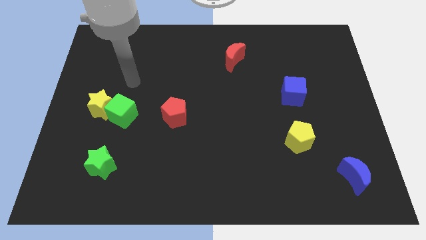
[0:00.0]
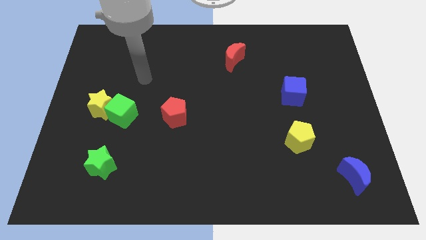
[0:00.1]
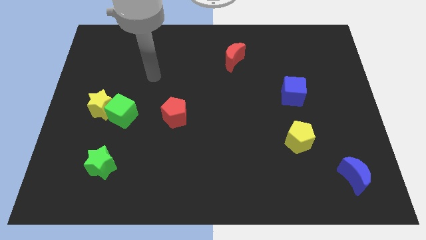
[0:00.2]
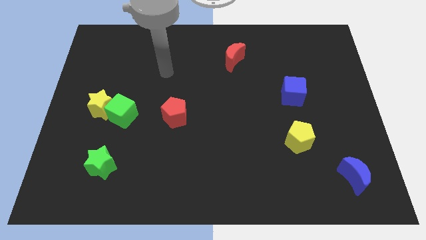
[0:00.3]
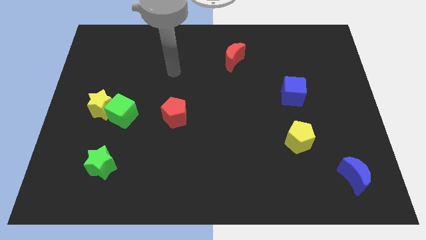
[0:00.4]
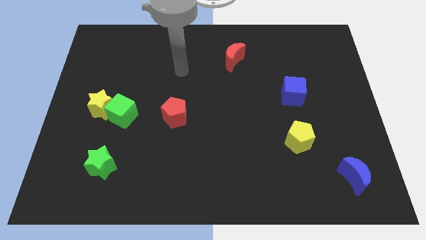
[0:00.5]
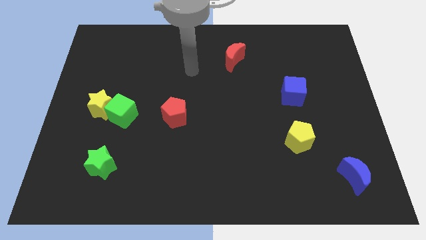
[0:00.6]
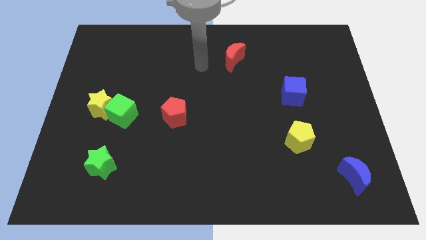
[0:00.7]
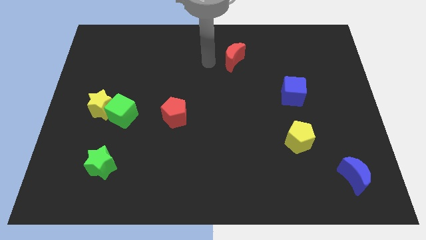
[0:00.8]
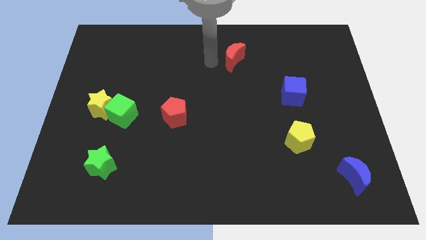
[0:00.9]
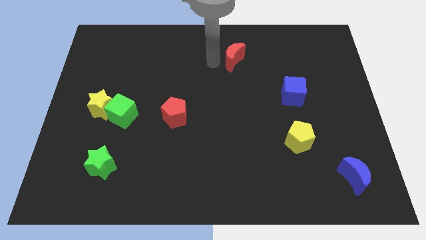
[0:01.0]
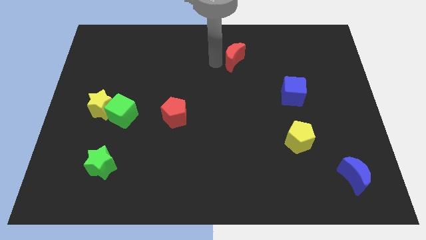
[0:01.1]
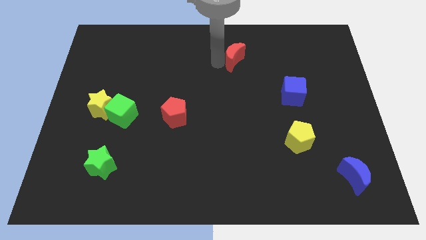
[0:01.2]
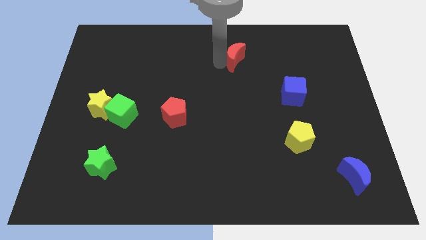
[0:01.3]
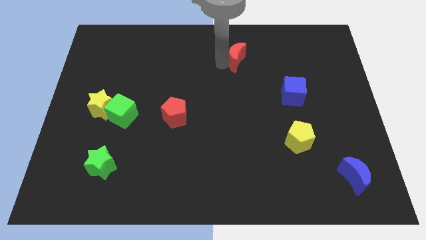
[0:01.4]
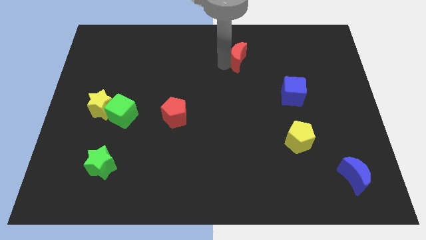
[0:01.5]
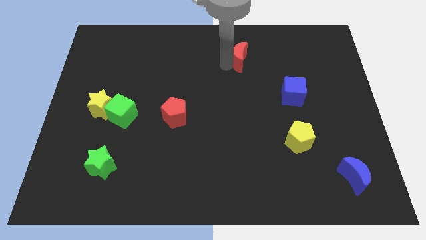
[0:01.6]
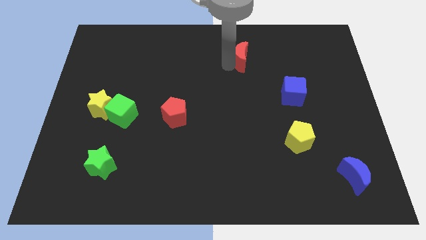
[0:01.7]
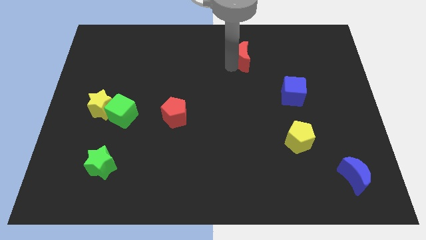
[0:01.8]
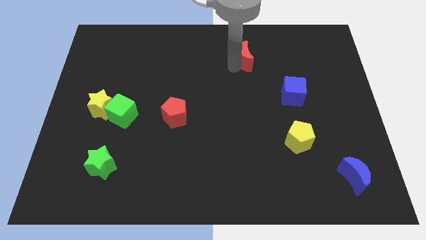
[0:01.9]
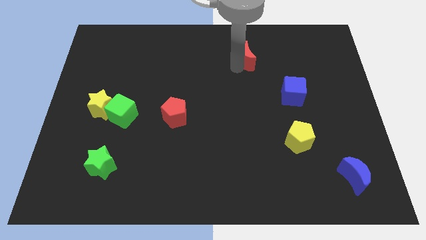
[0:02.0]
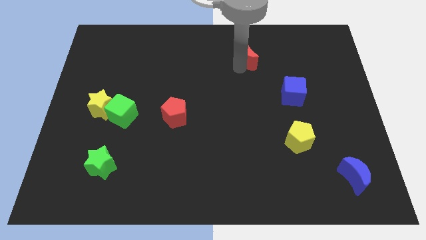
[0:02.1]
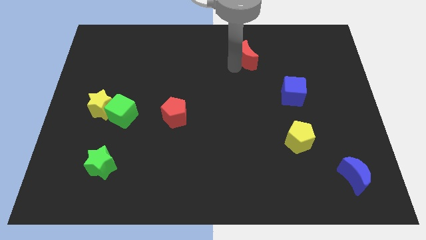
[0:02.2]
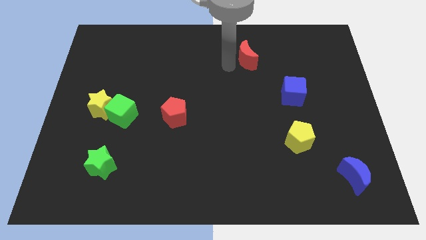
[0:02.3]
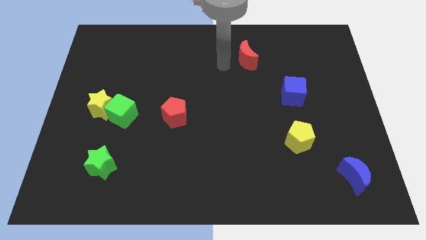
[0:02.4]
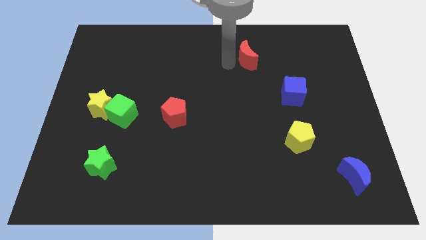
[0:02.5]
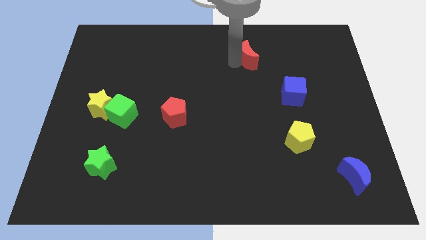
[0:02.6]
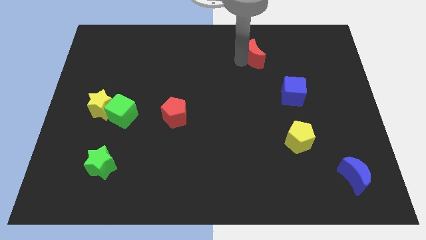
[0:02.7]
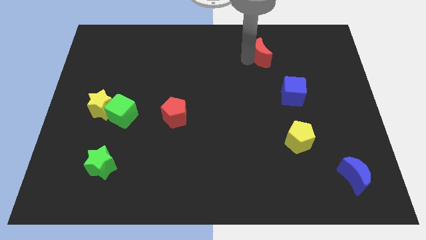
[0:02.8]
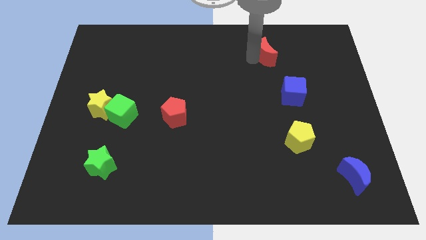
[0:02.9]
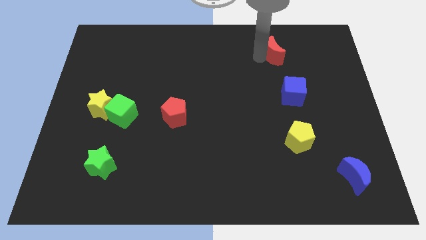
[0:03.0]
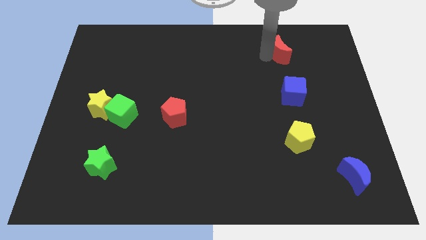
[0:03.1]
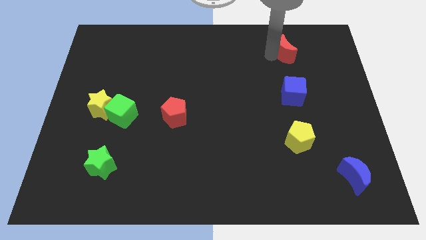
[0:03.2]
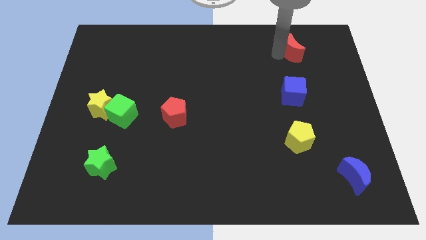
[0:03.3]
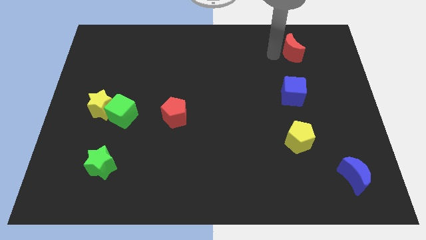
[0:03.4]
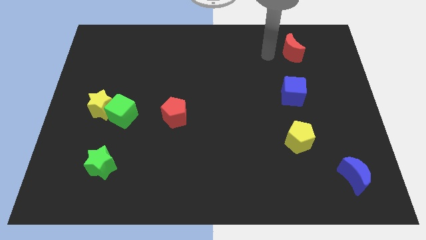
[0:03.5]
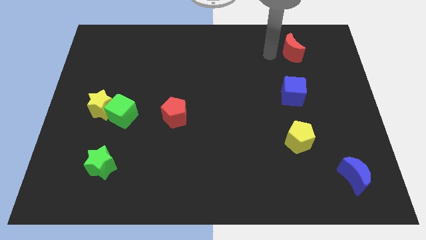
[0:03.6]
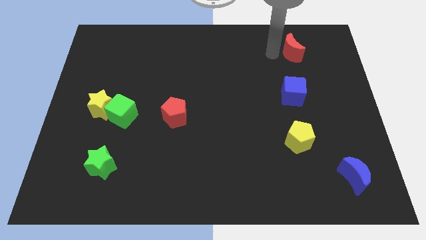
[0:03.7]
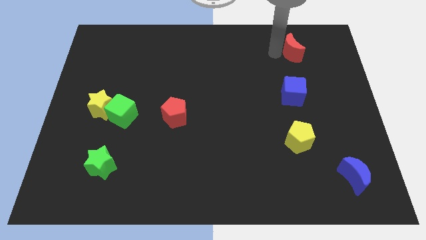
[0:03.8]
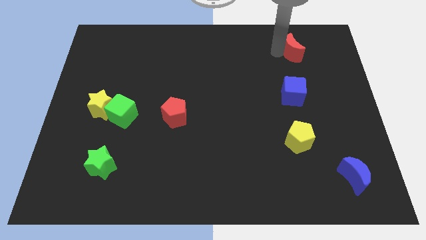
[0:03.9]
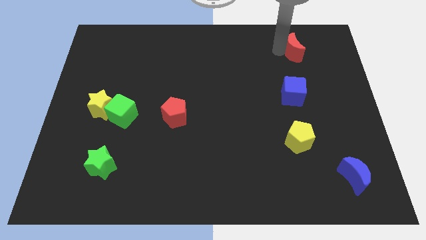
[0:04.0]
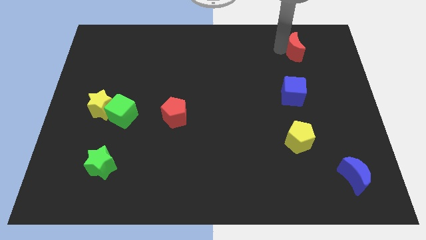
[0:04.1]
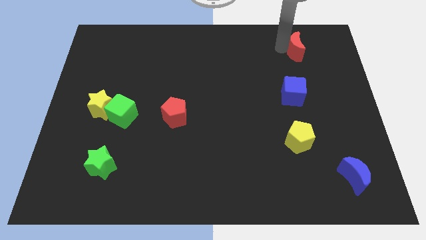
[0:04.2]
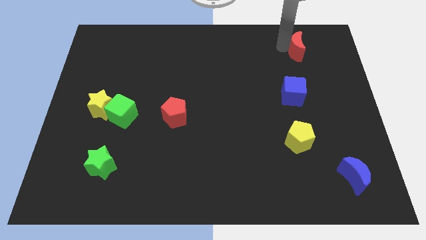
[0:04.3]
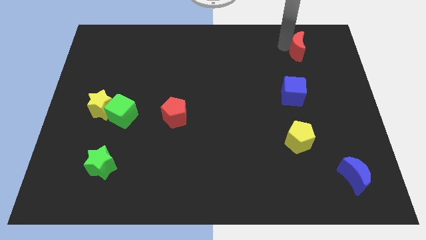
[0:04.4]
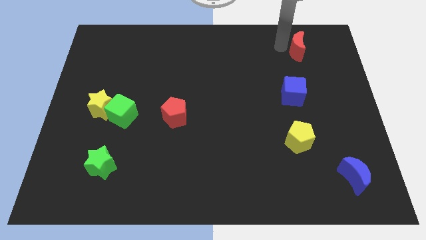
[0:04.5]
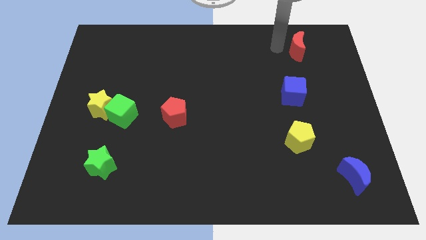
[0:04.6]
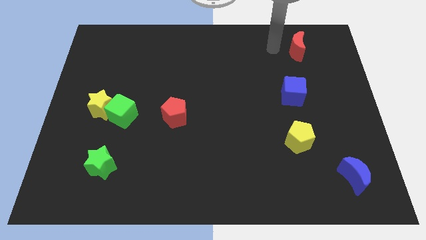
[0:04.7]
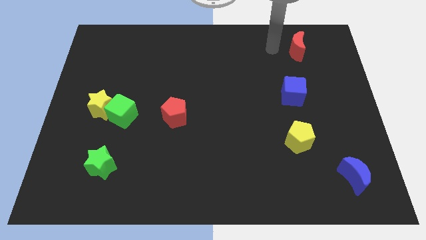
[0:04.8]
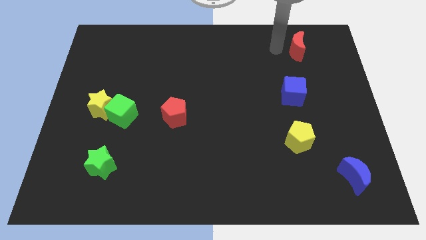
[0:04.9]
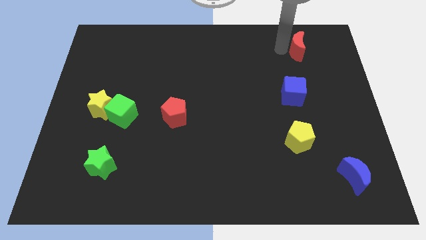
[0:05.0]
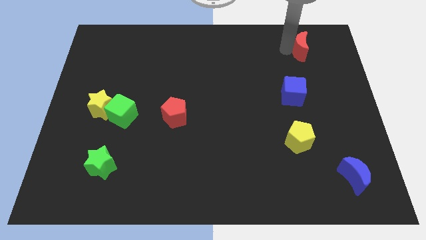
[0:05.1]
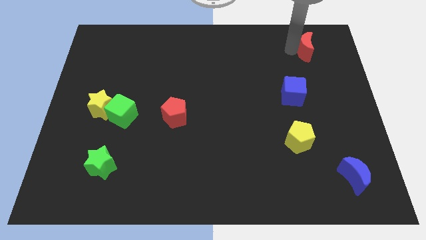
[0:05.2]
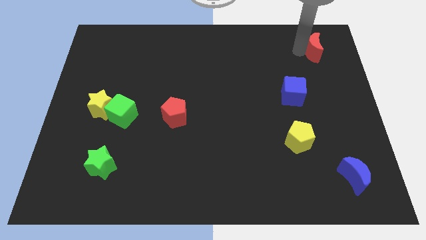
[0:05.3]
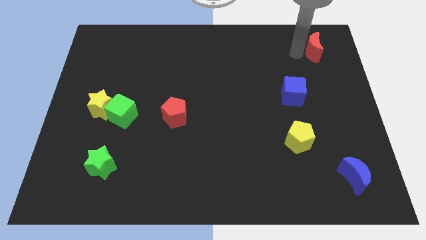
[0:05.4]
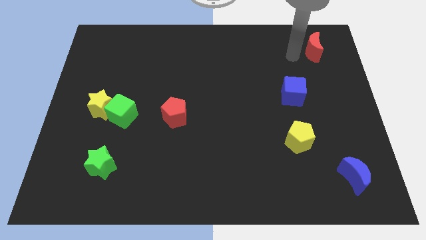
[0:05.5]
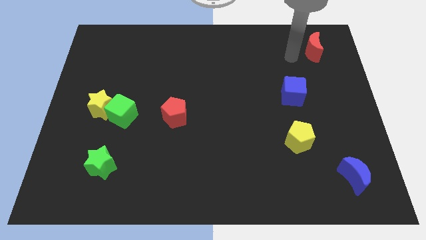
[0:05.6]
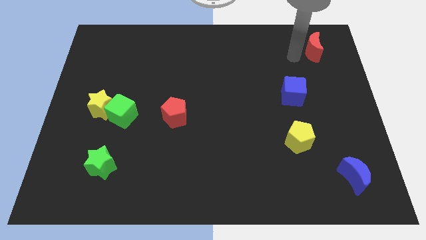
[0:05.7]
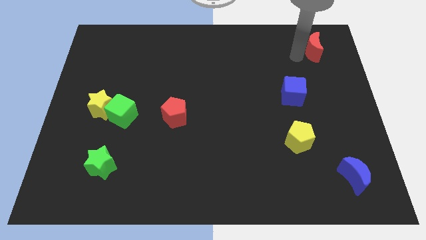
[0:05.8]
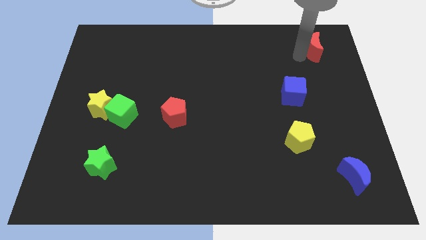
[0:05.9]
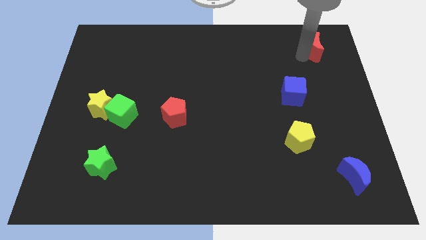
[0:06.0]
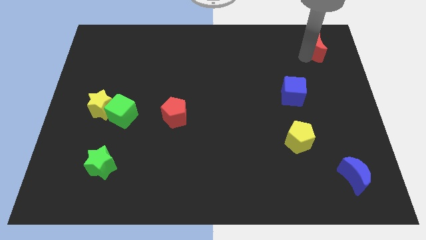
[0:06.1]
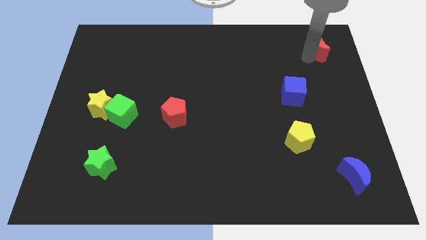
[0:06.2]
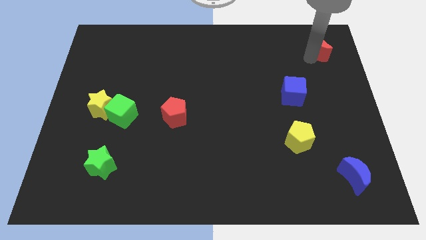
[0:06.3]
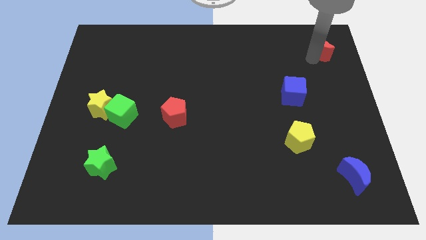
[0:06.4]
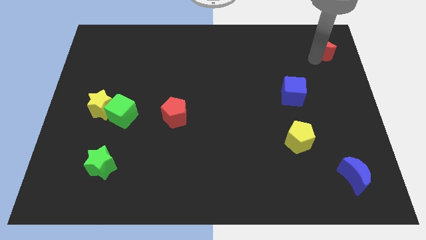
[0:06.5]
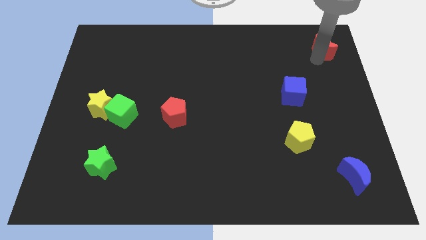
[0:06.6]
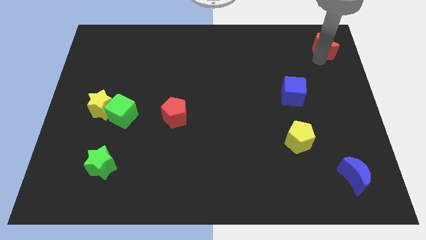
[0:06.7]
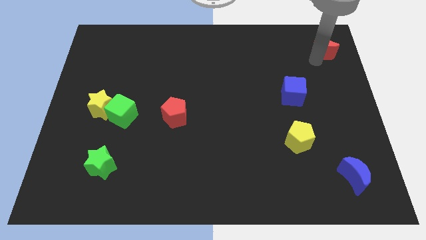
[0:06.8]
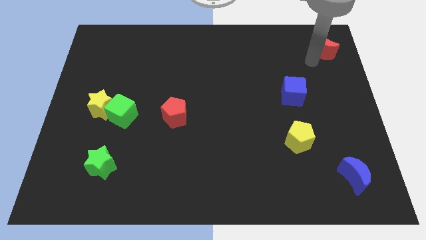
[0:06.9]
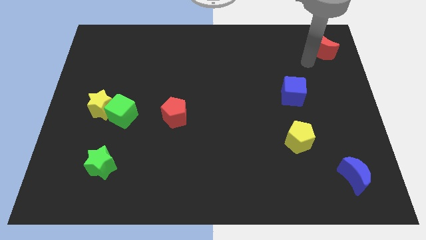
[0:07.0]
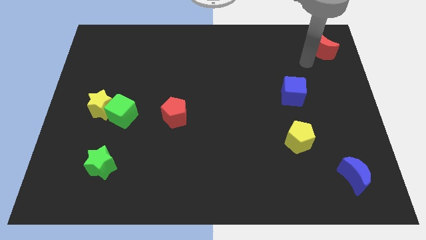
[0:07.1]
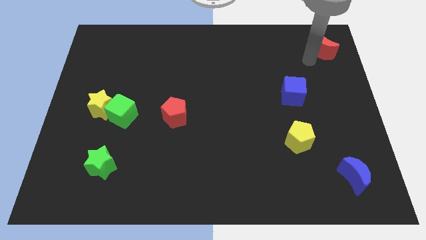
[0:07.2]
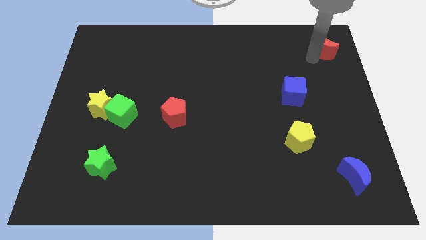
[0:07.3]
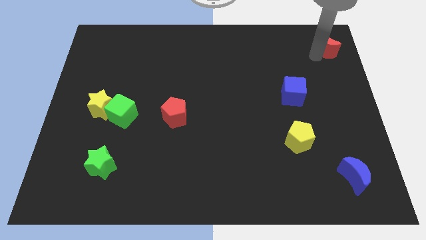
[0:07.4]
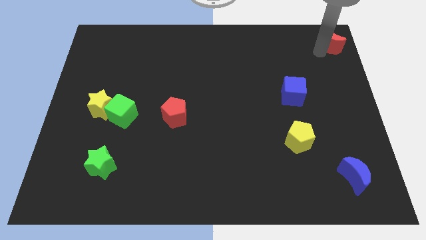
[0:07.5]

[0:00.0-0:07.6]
push the red moon to the upper right corner
